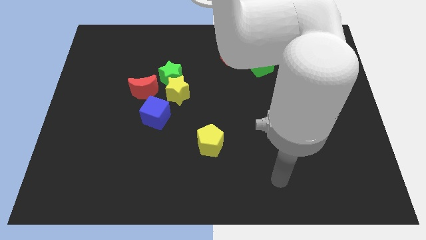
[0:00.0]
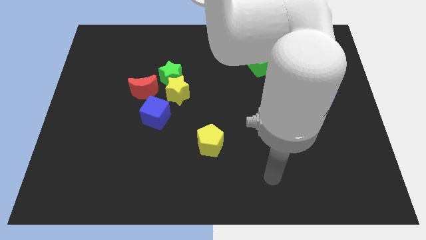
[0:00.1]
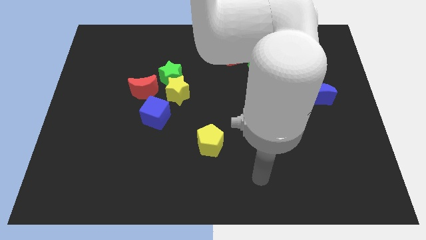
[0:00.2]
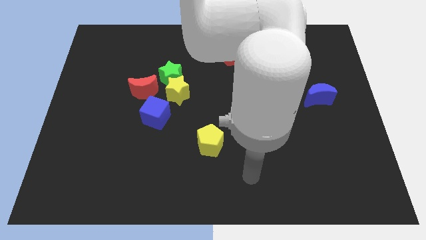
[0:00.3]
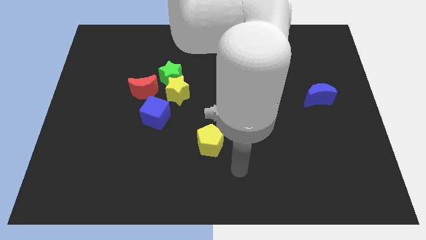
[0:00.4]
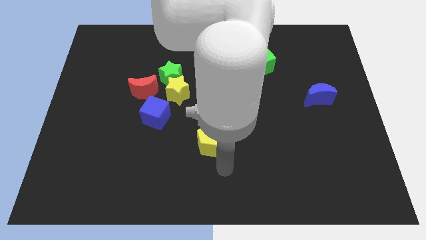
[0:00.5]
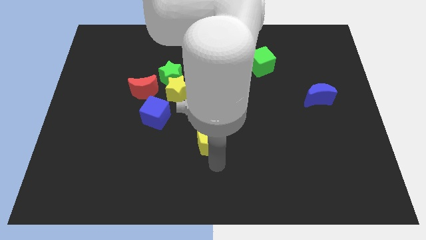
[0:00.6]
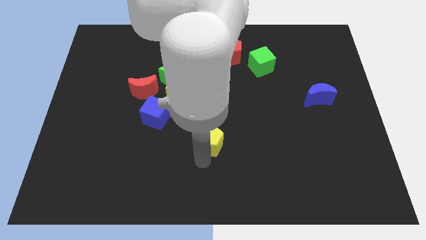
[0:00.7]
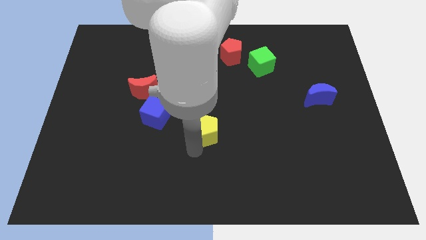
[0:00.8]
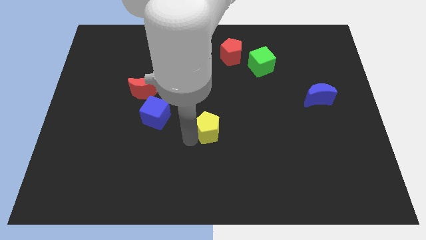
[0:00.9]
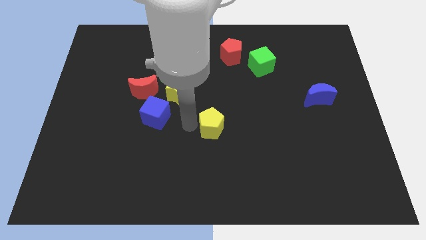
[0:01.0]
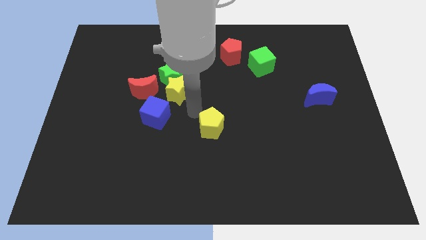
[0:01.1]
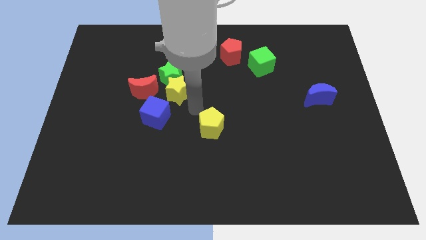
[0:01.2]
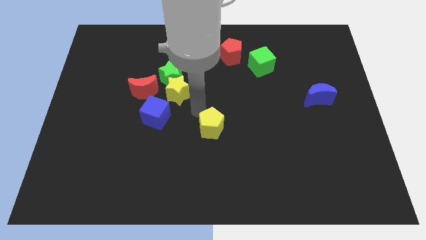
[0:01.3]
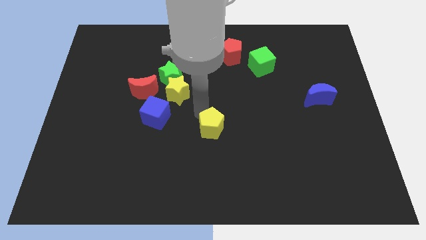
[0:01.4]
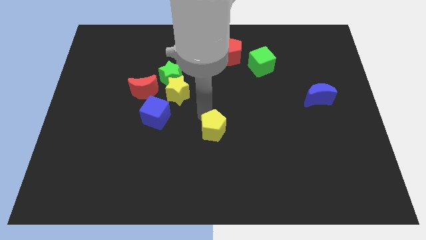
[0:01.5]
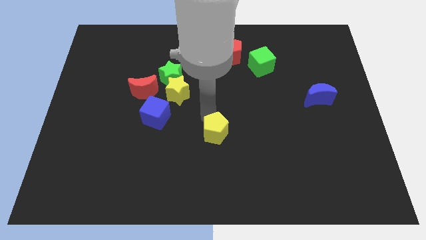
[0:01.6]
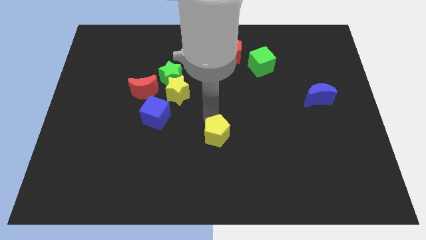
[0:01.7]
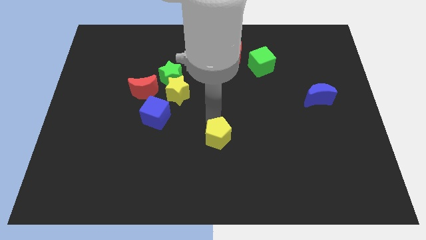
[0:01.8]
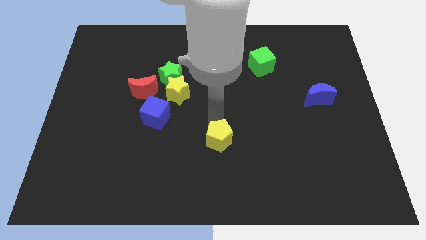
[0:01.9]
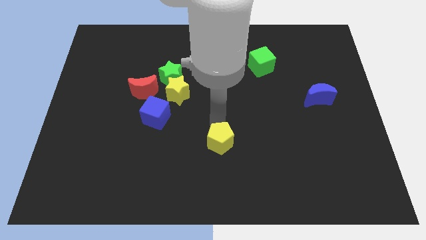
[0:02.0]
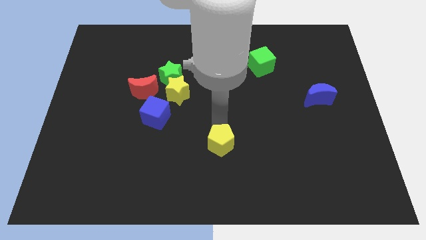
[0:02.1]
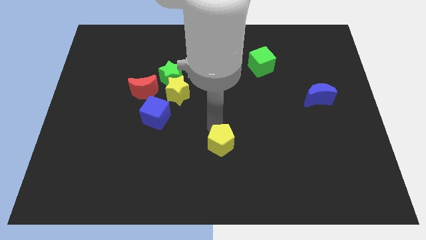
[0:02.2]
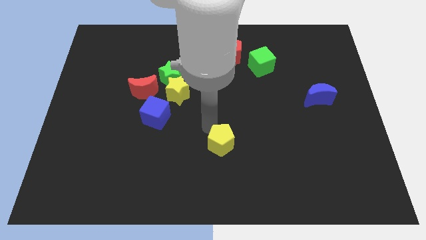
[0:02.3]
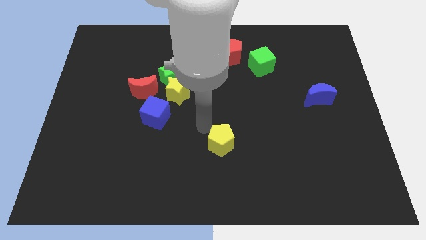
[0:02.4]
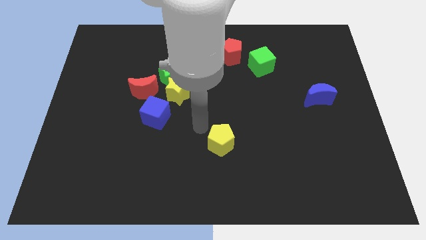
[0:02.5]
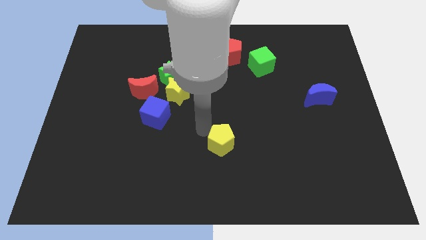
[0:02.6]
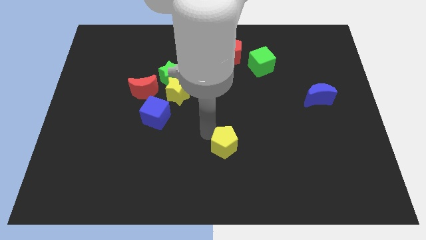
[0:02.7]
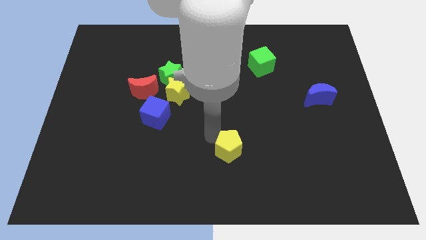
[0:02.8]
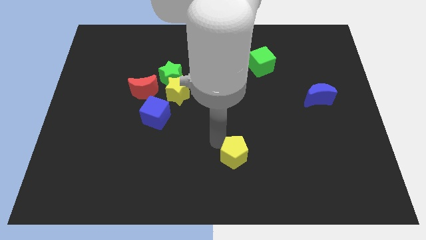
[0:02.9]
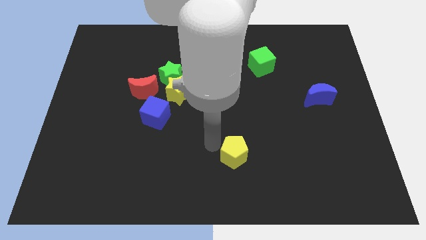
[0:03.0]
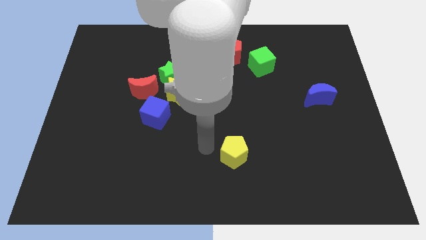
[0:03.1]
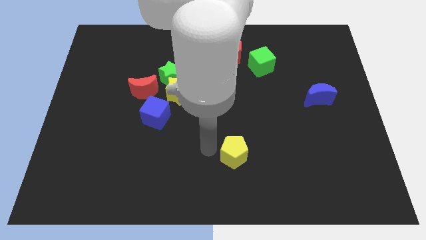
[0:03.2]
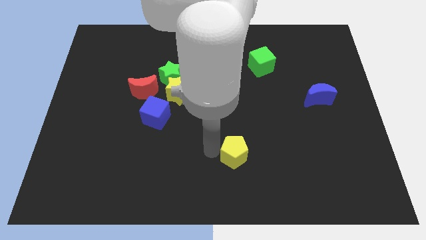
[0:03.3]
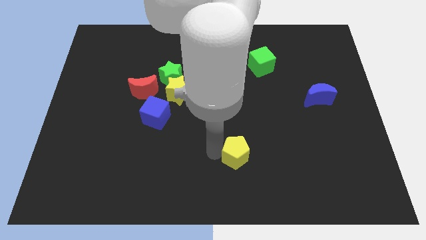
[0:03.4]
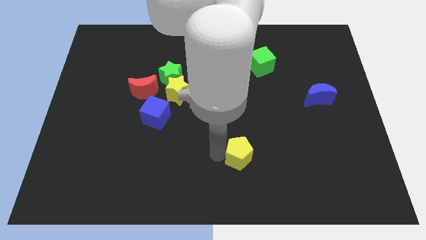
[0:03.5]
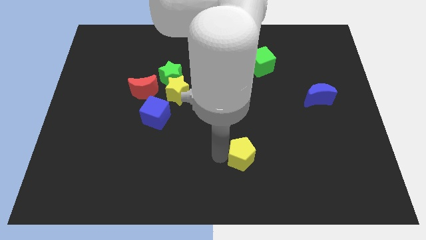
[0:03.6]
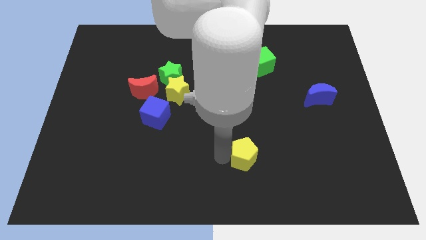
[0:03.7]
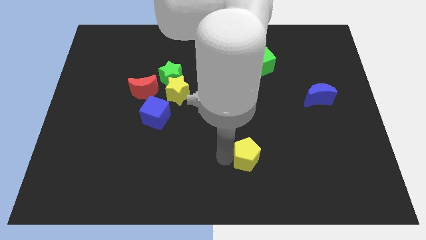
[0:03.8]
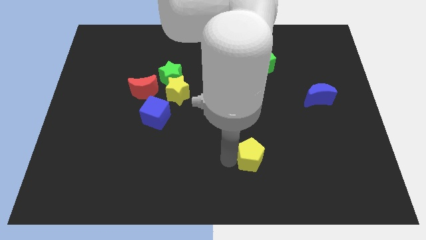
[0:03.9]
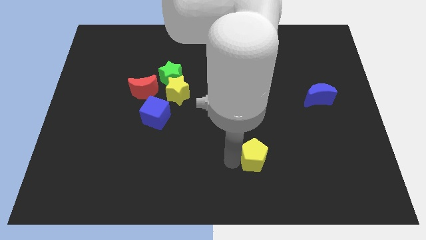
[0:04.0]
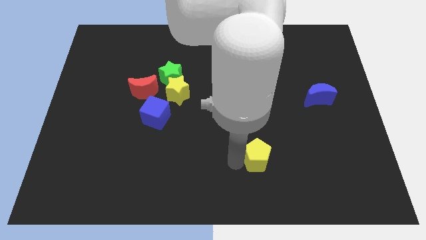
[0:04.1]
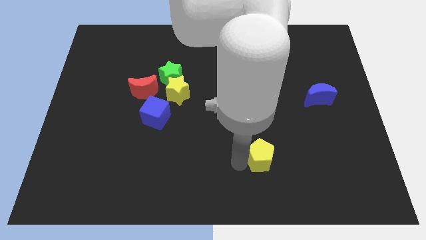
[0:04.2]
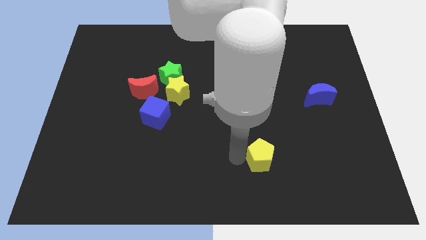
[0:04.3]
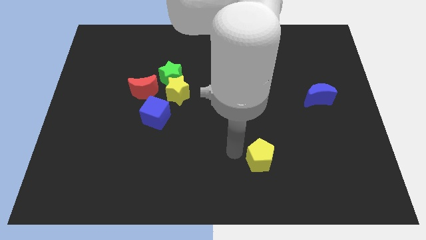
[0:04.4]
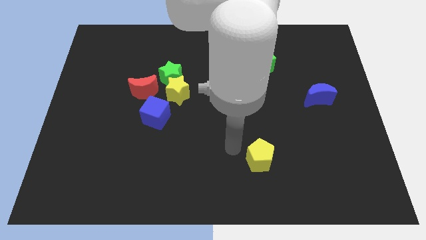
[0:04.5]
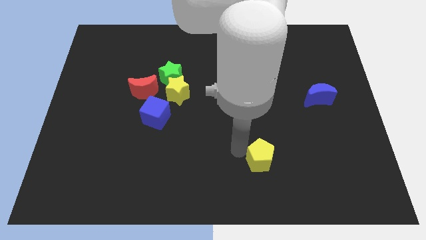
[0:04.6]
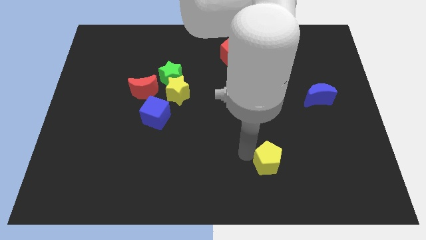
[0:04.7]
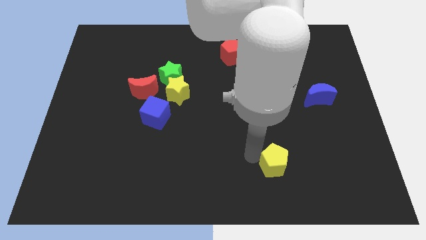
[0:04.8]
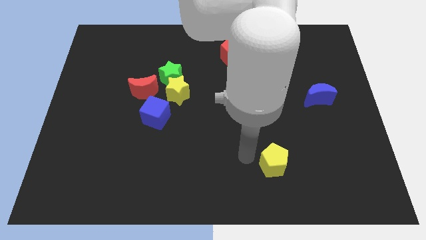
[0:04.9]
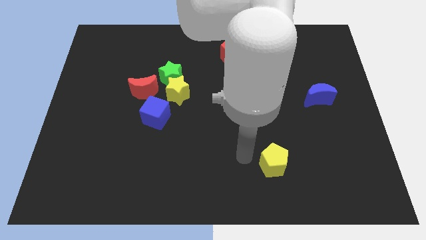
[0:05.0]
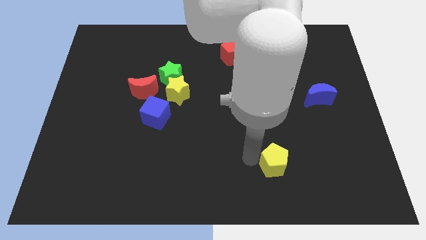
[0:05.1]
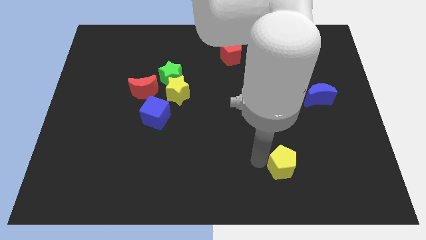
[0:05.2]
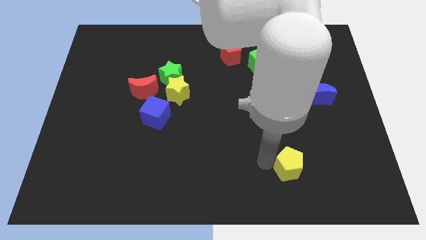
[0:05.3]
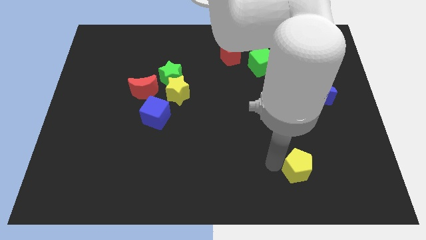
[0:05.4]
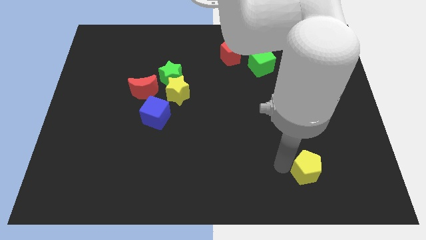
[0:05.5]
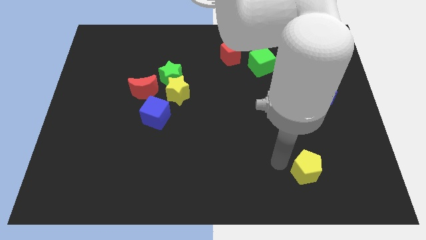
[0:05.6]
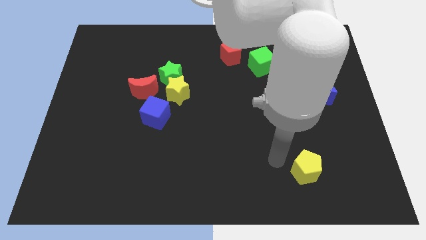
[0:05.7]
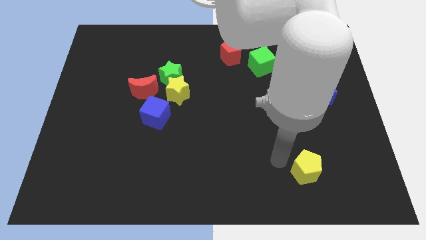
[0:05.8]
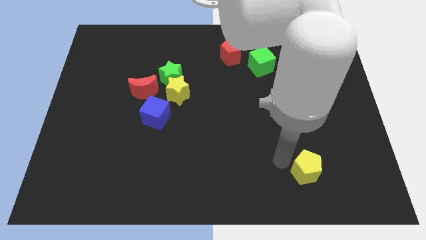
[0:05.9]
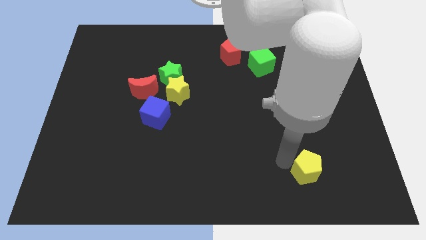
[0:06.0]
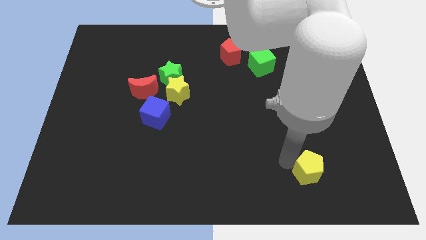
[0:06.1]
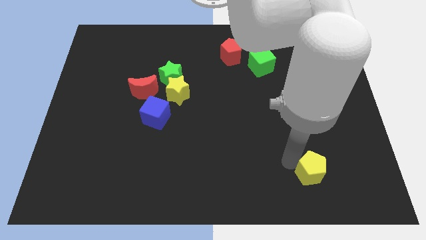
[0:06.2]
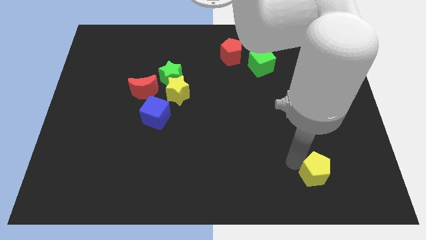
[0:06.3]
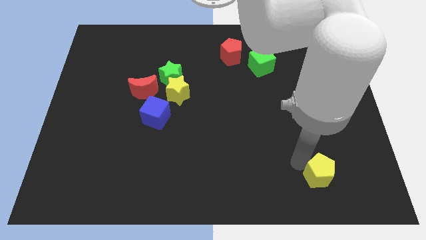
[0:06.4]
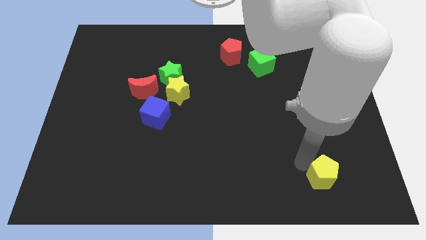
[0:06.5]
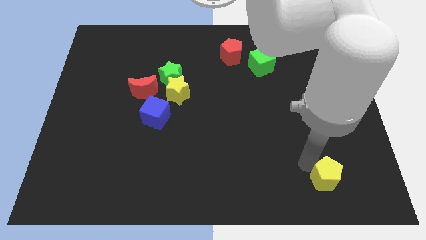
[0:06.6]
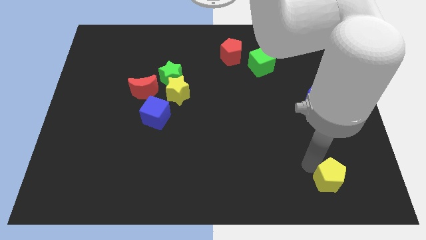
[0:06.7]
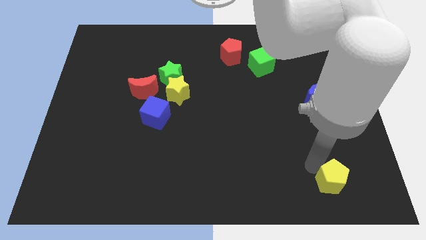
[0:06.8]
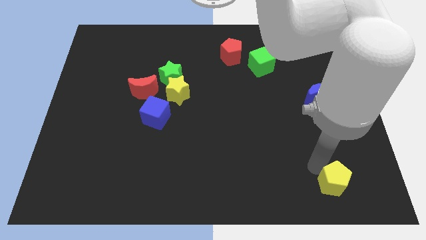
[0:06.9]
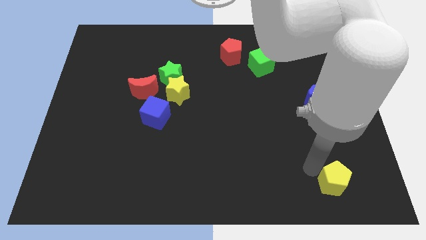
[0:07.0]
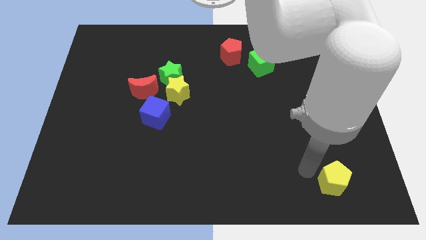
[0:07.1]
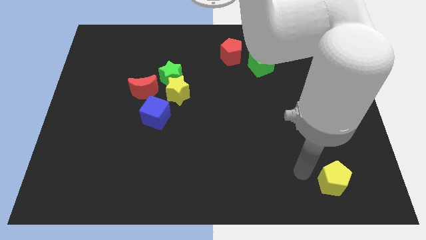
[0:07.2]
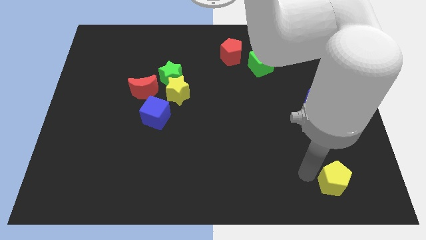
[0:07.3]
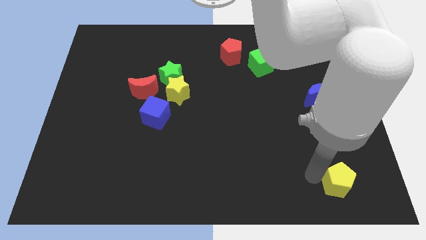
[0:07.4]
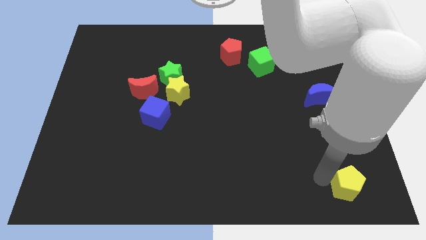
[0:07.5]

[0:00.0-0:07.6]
move the yellow pentagon to the lower right corner
